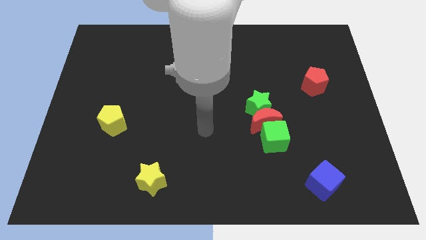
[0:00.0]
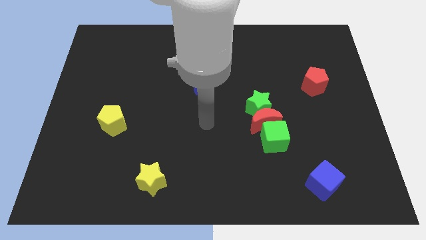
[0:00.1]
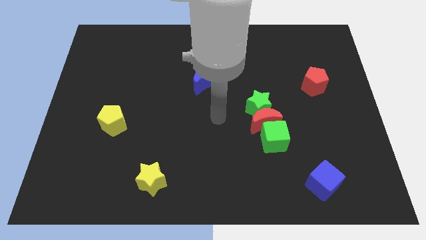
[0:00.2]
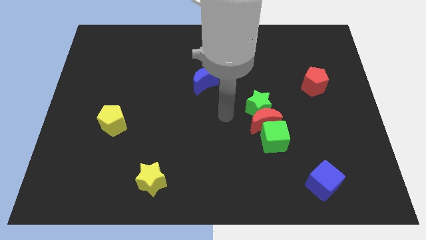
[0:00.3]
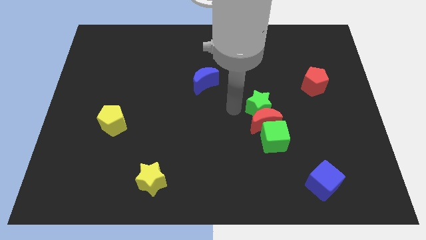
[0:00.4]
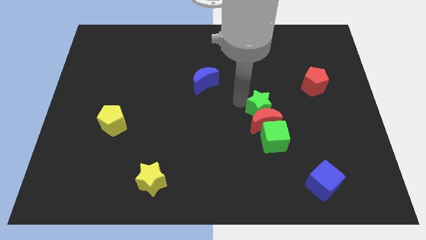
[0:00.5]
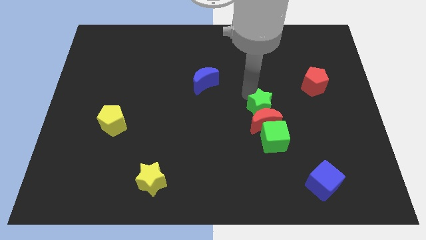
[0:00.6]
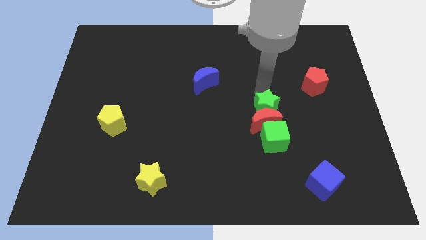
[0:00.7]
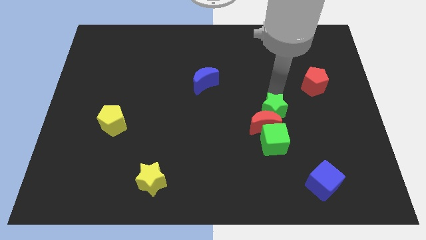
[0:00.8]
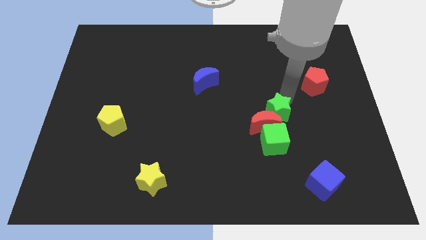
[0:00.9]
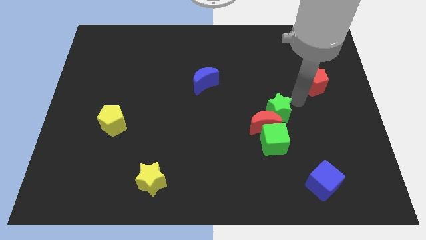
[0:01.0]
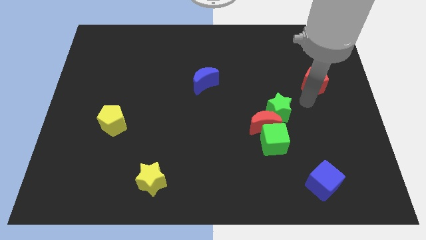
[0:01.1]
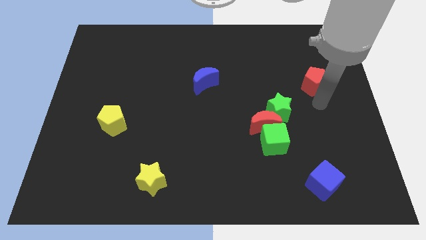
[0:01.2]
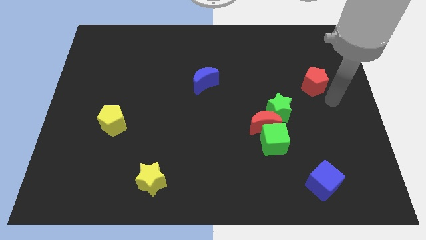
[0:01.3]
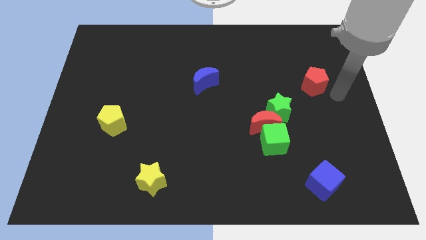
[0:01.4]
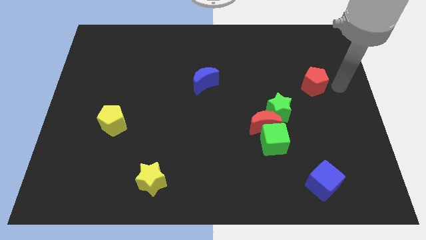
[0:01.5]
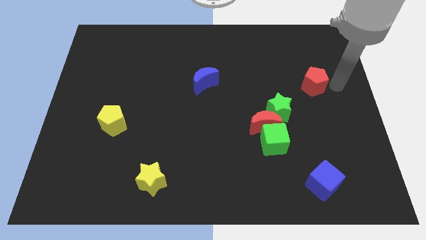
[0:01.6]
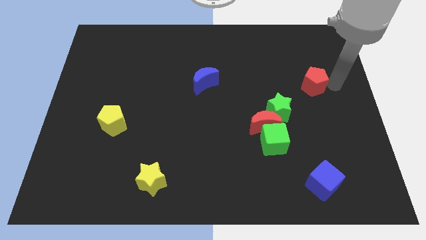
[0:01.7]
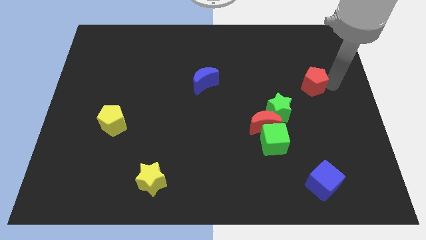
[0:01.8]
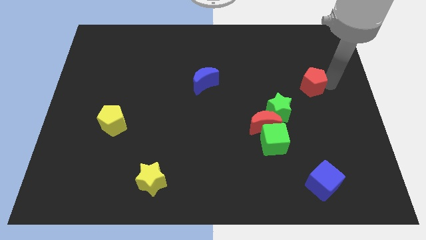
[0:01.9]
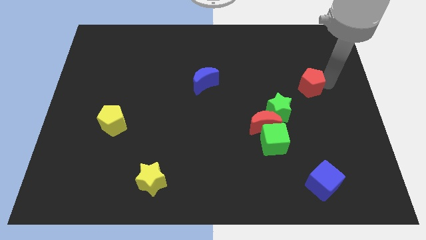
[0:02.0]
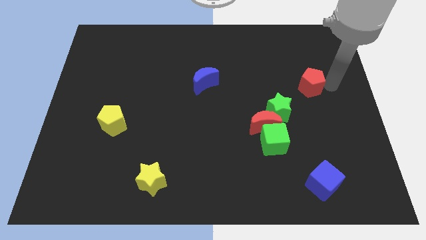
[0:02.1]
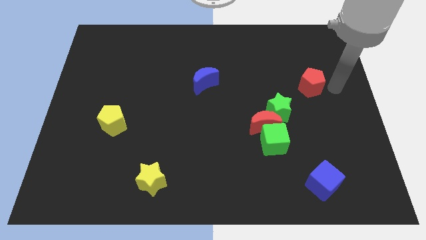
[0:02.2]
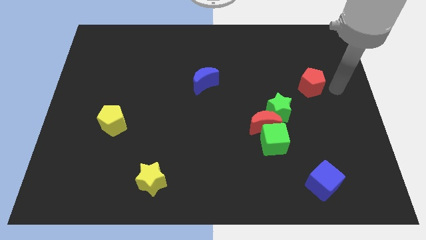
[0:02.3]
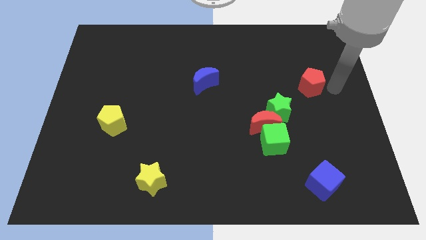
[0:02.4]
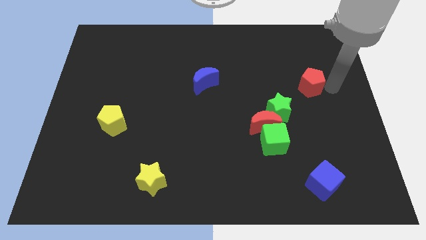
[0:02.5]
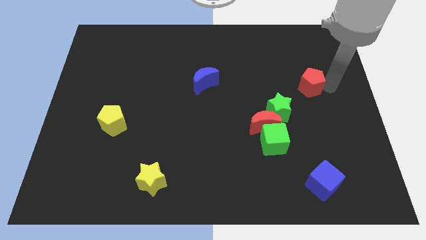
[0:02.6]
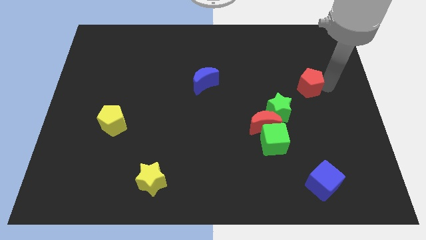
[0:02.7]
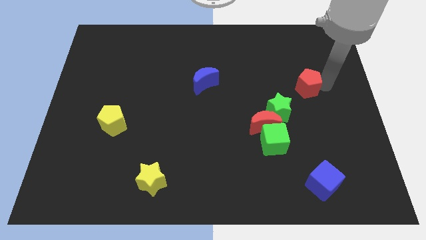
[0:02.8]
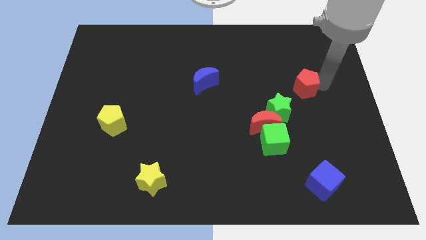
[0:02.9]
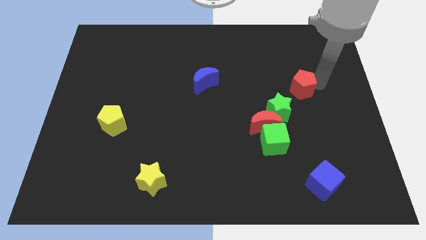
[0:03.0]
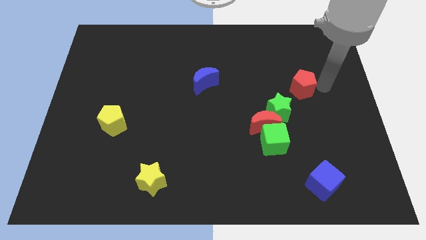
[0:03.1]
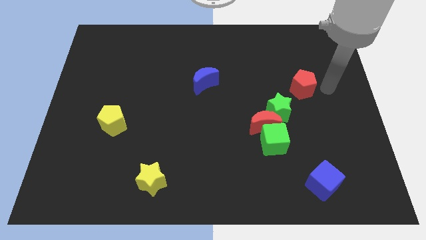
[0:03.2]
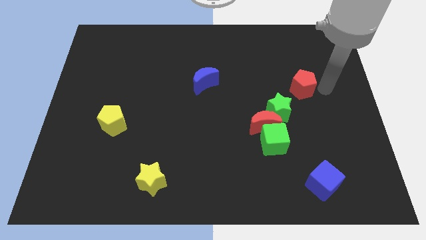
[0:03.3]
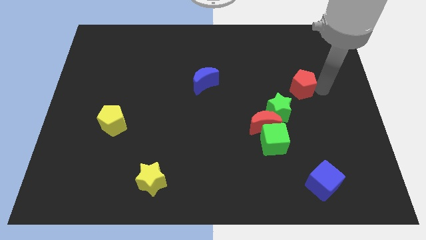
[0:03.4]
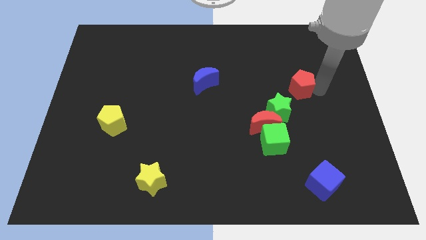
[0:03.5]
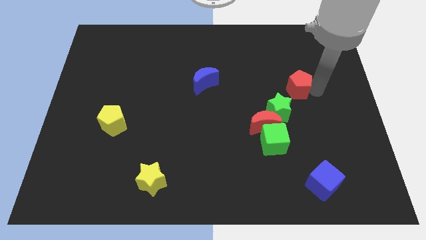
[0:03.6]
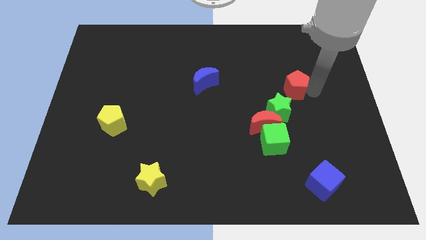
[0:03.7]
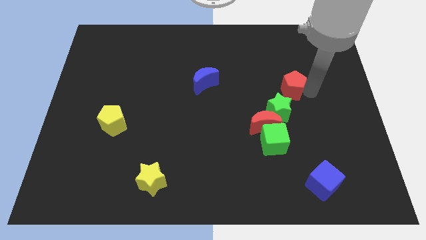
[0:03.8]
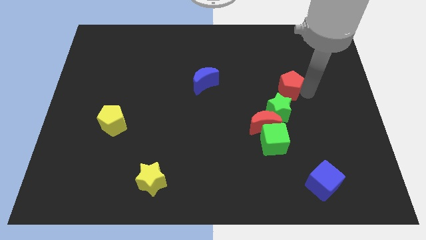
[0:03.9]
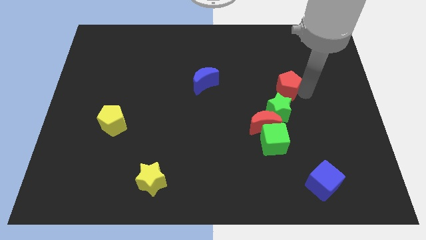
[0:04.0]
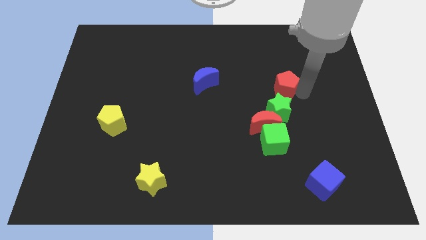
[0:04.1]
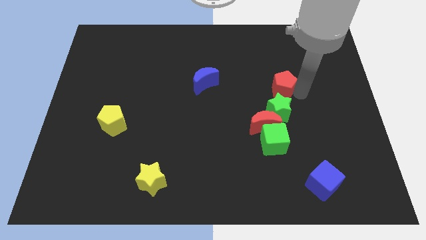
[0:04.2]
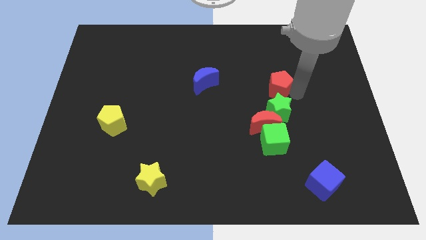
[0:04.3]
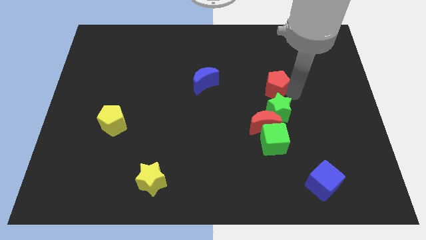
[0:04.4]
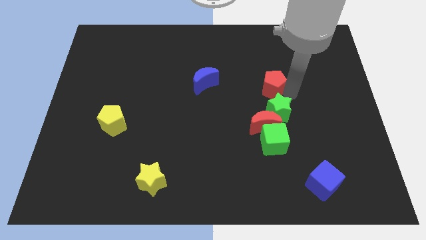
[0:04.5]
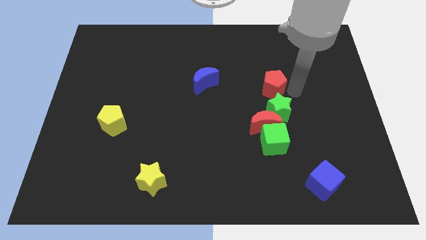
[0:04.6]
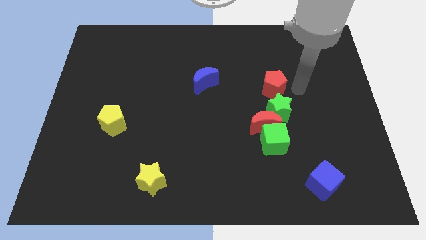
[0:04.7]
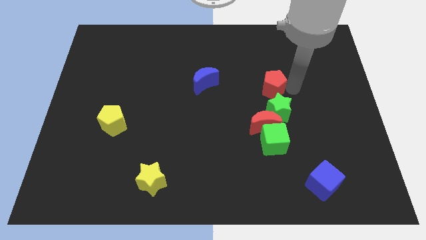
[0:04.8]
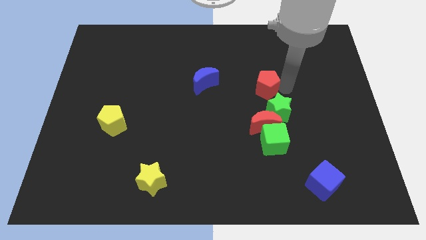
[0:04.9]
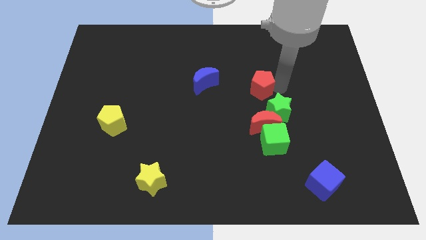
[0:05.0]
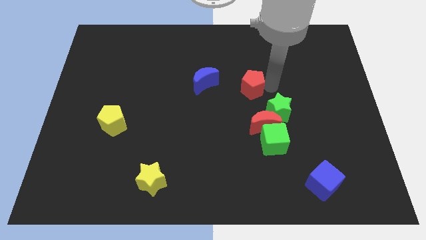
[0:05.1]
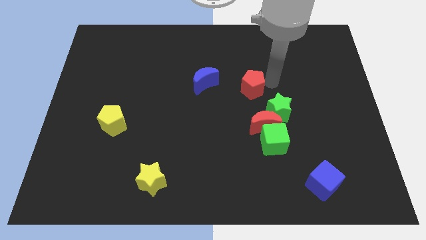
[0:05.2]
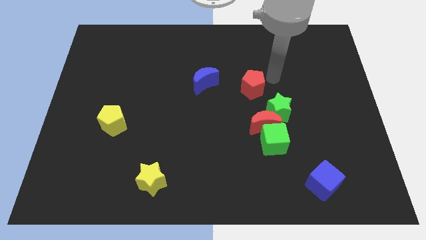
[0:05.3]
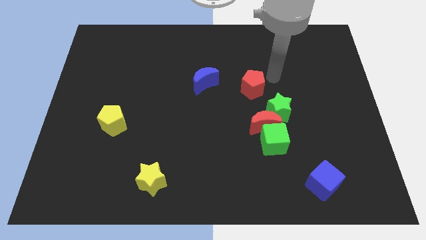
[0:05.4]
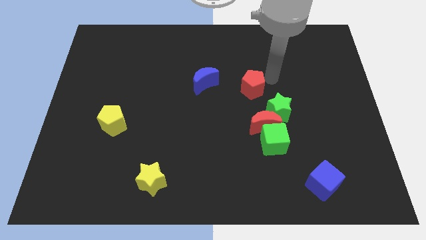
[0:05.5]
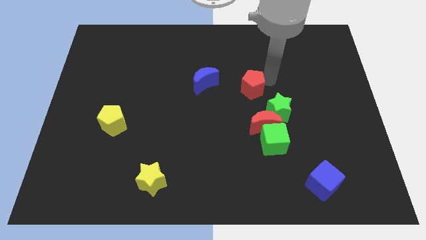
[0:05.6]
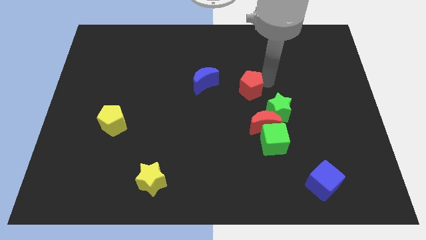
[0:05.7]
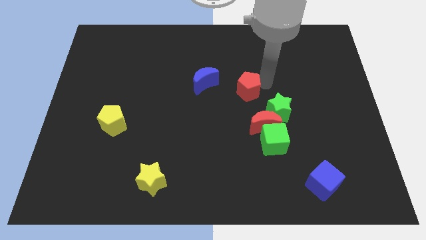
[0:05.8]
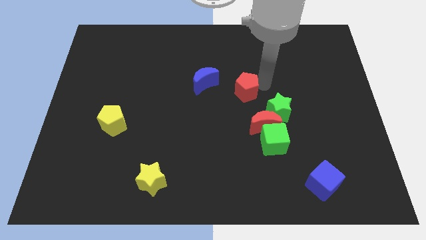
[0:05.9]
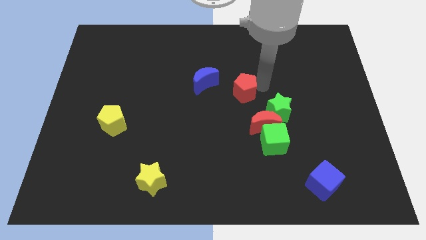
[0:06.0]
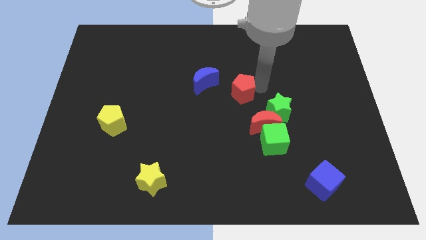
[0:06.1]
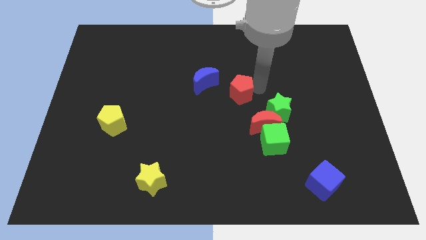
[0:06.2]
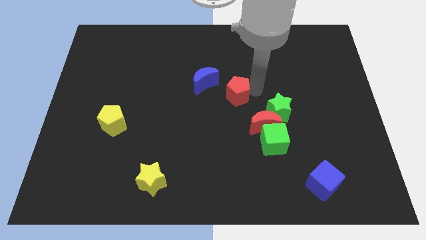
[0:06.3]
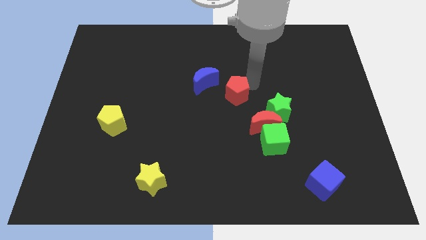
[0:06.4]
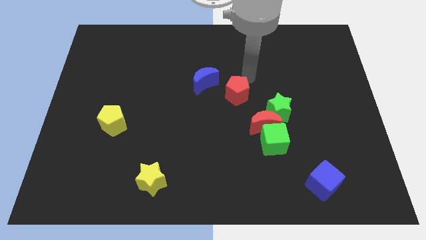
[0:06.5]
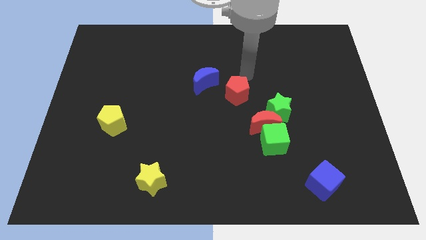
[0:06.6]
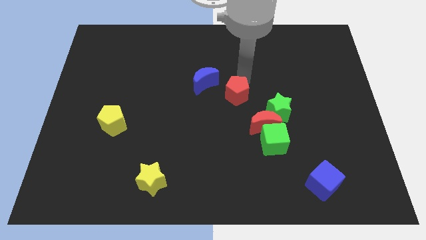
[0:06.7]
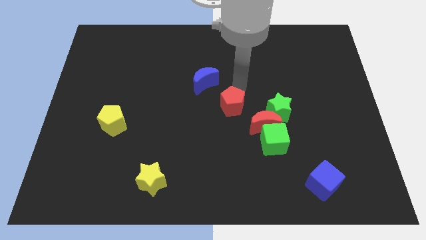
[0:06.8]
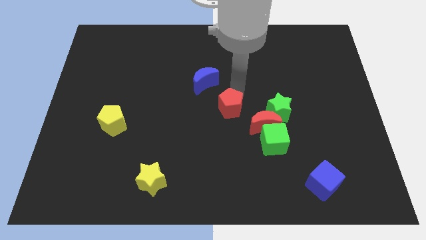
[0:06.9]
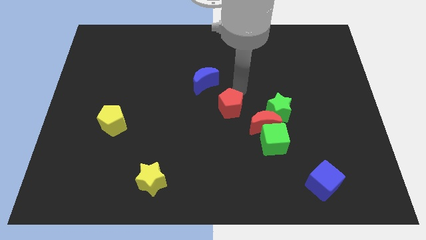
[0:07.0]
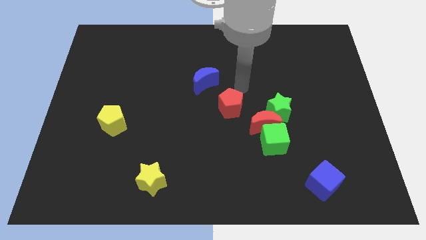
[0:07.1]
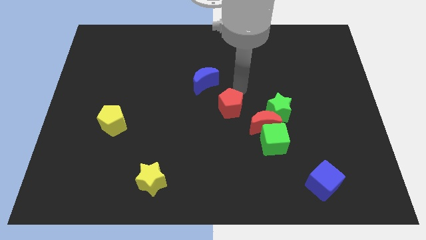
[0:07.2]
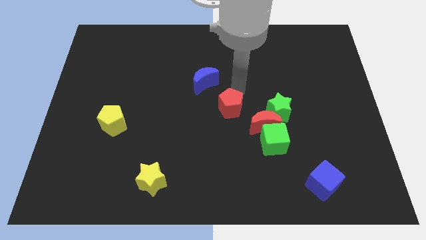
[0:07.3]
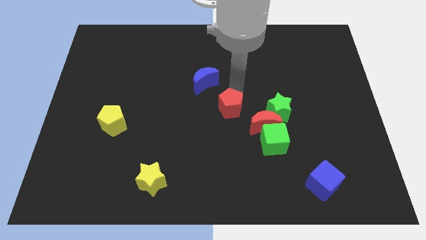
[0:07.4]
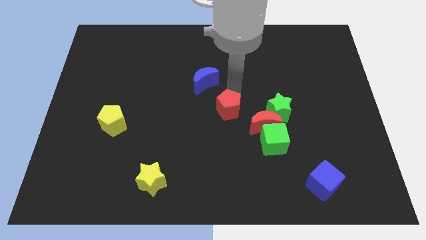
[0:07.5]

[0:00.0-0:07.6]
move the red pentagon just left of the red moon

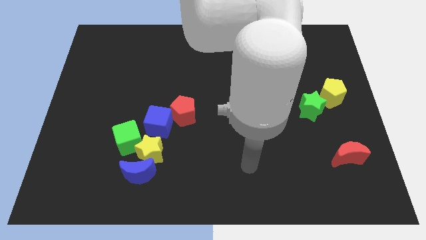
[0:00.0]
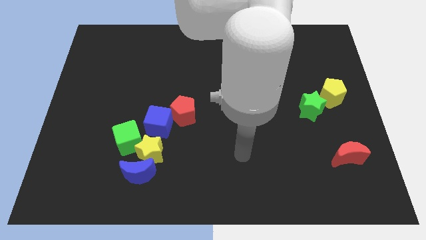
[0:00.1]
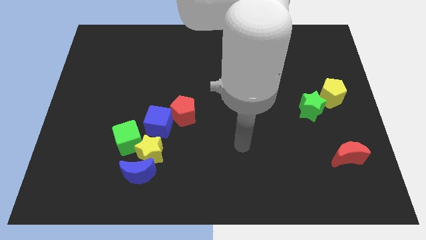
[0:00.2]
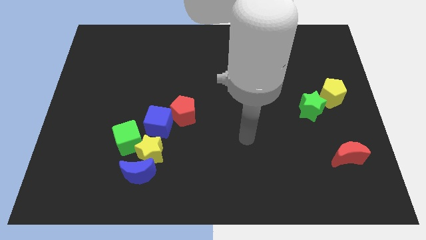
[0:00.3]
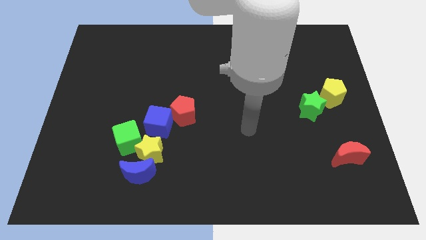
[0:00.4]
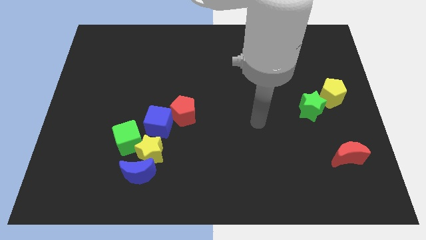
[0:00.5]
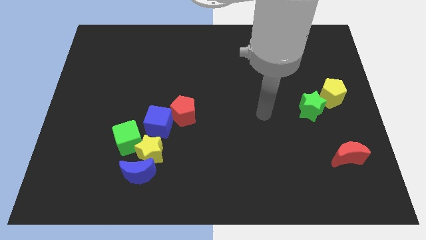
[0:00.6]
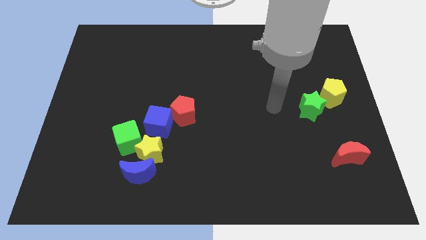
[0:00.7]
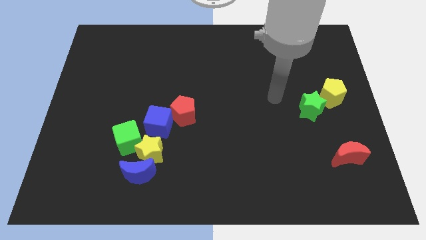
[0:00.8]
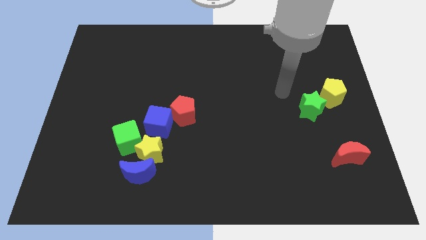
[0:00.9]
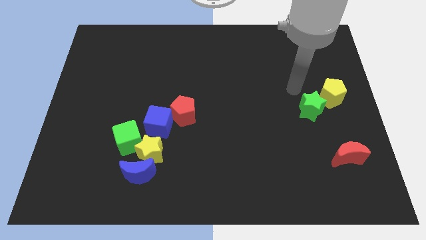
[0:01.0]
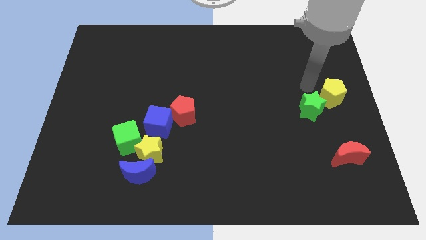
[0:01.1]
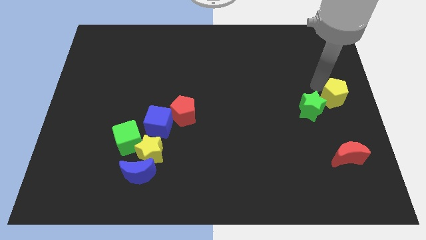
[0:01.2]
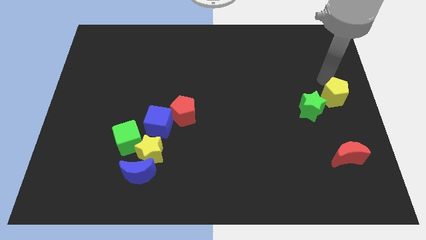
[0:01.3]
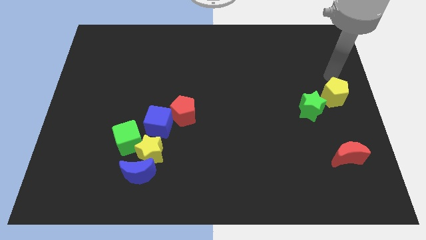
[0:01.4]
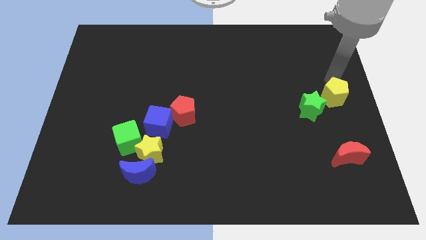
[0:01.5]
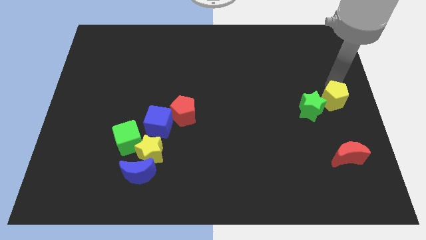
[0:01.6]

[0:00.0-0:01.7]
put the yellow pentagon to the top side of the red moon
